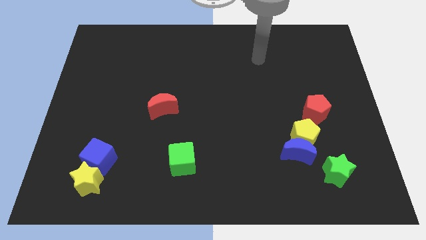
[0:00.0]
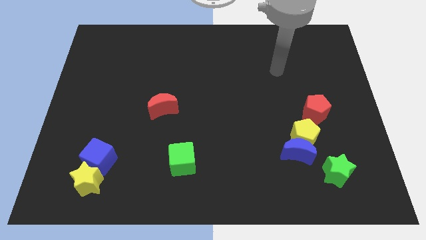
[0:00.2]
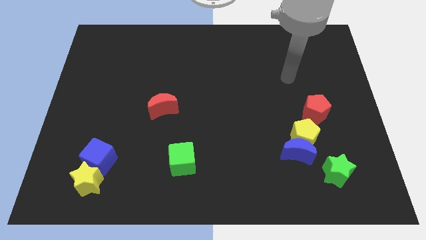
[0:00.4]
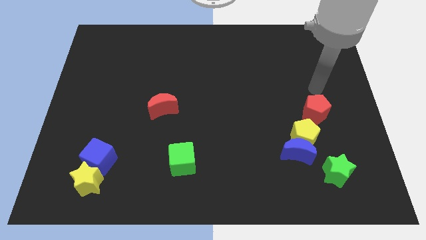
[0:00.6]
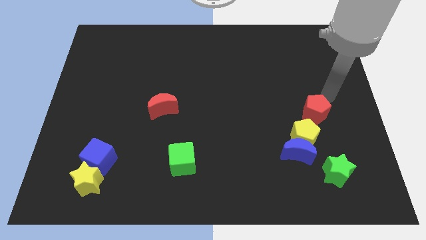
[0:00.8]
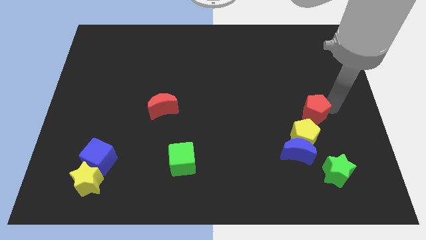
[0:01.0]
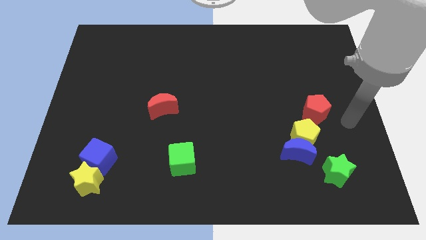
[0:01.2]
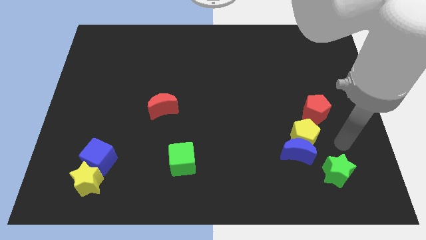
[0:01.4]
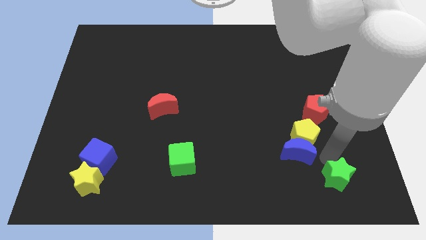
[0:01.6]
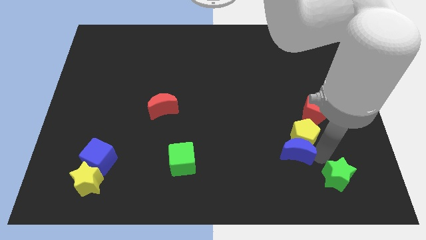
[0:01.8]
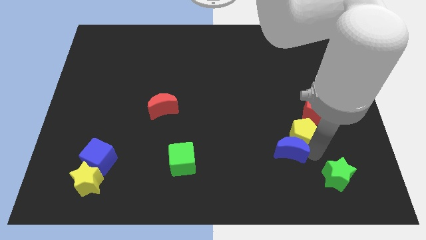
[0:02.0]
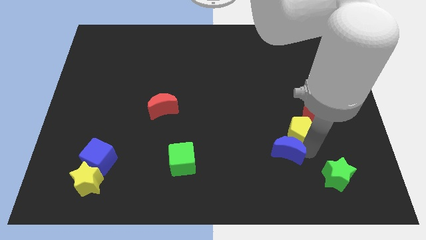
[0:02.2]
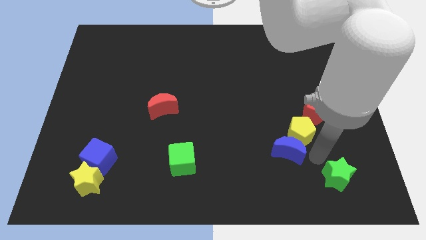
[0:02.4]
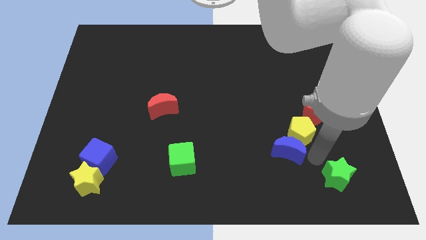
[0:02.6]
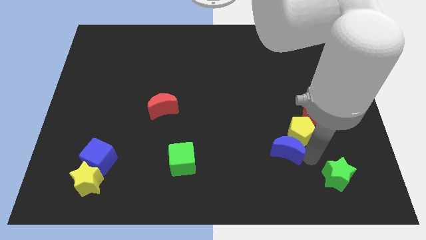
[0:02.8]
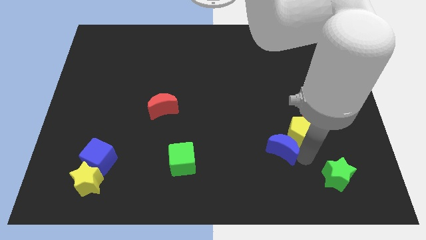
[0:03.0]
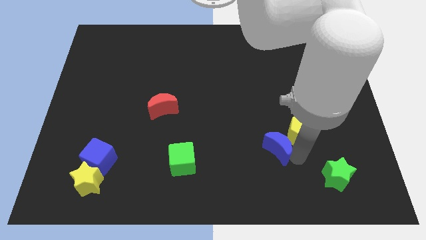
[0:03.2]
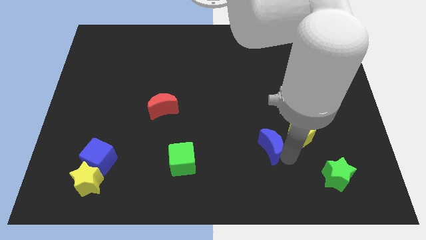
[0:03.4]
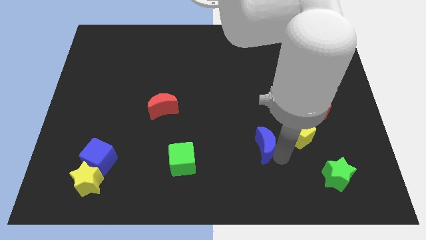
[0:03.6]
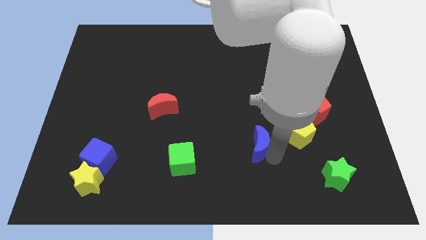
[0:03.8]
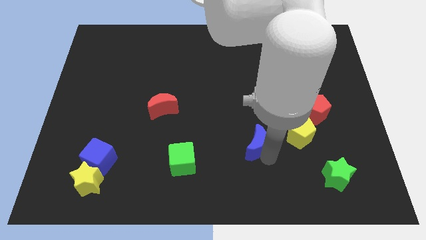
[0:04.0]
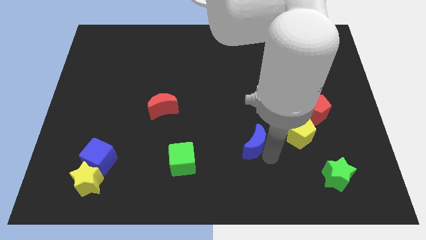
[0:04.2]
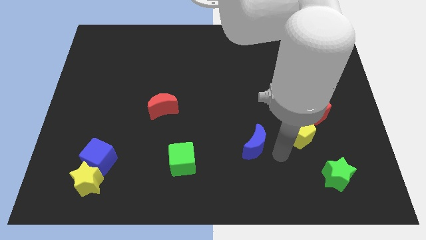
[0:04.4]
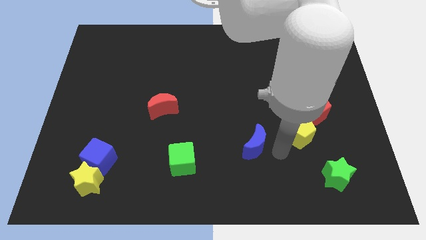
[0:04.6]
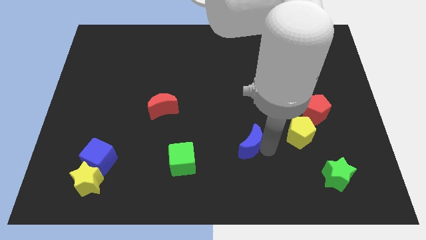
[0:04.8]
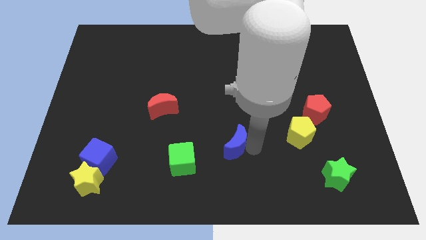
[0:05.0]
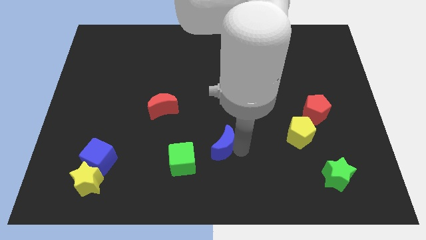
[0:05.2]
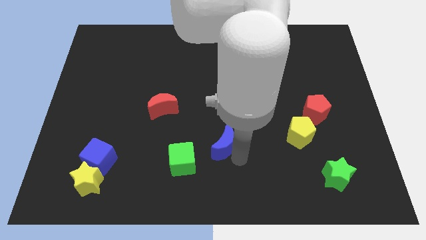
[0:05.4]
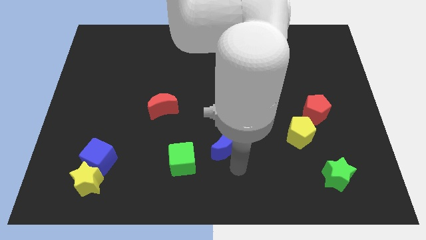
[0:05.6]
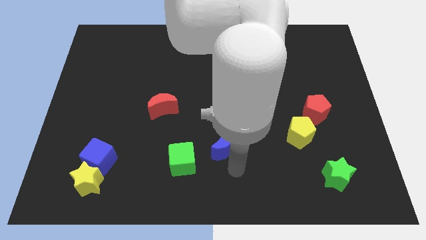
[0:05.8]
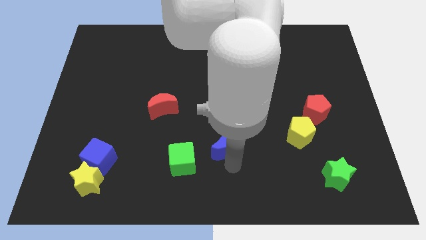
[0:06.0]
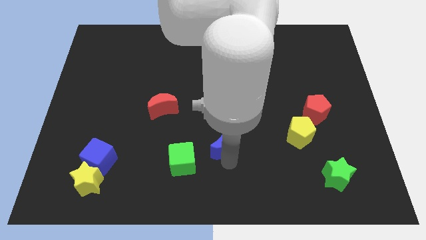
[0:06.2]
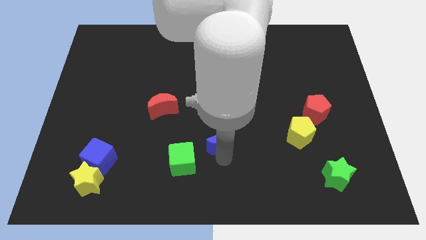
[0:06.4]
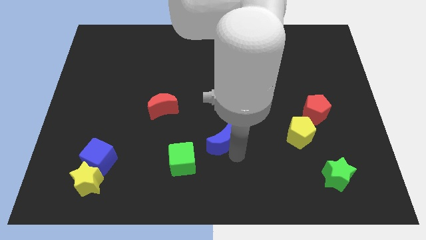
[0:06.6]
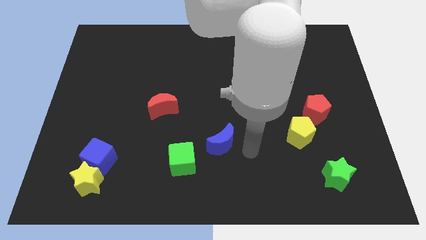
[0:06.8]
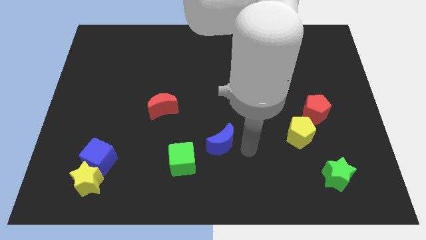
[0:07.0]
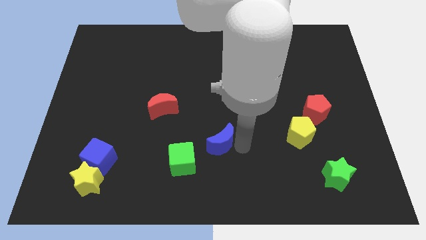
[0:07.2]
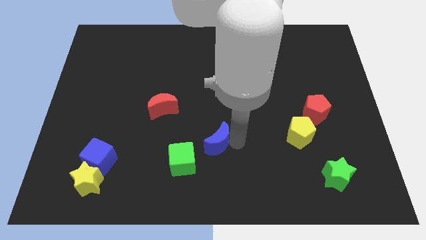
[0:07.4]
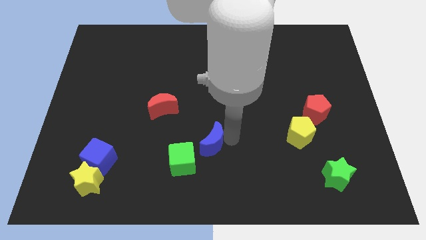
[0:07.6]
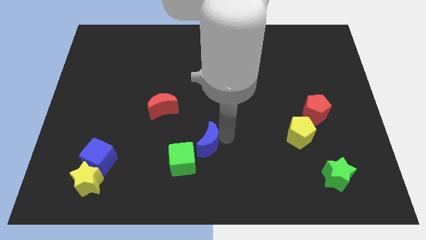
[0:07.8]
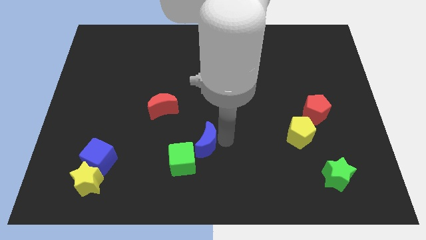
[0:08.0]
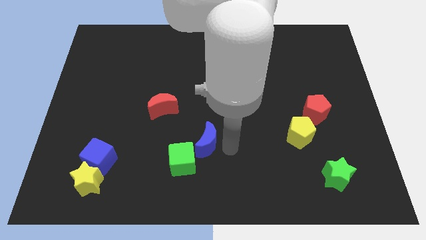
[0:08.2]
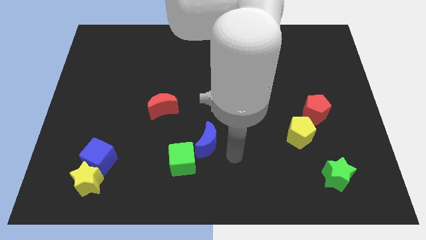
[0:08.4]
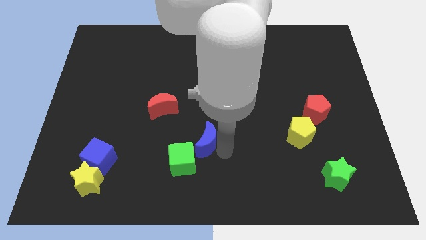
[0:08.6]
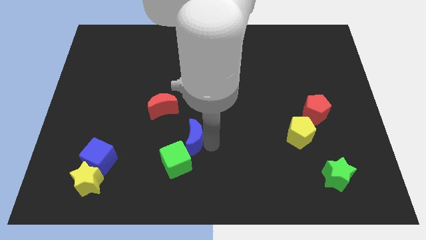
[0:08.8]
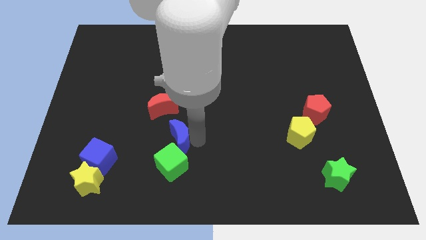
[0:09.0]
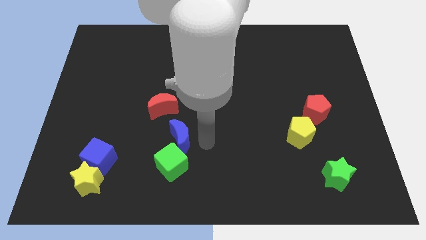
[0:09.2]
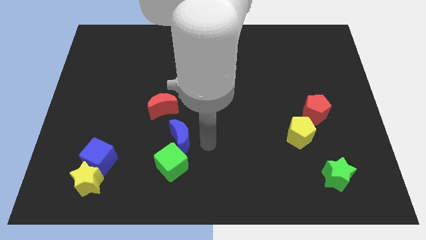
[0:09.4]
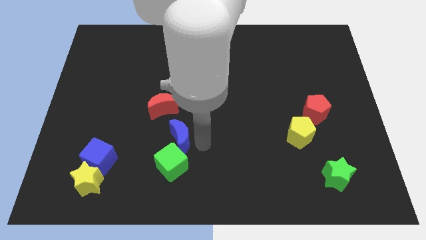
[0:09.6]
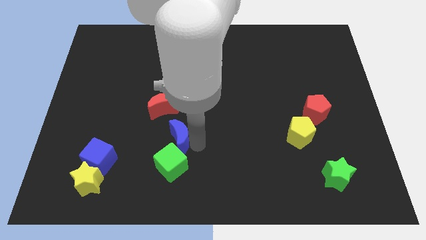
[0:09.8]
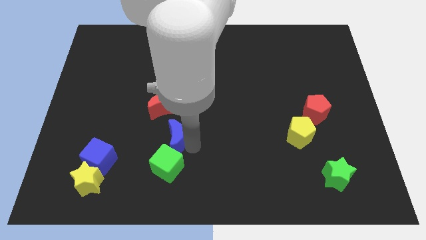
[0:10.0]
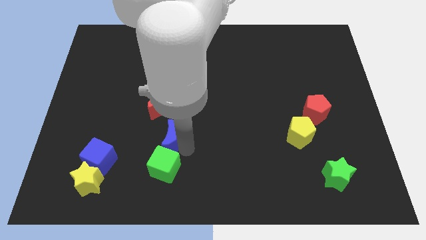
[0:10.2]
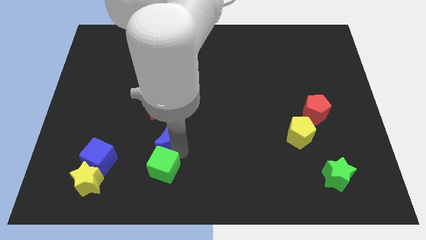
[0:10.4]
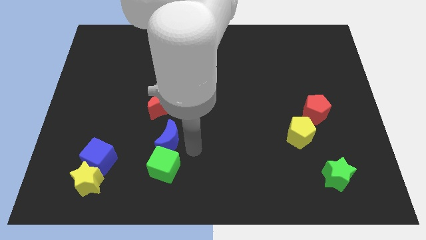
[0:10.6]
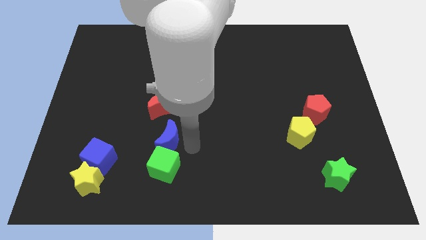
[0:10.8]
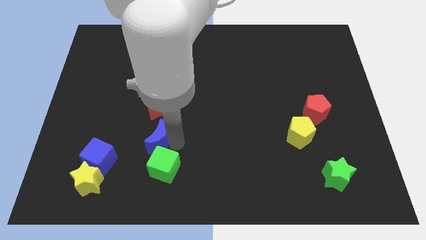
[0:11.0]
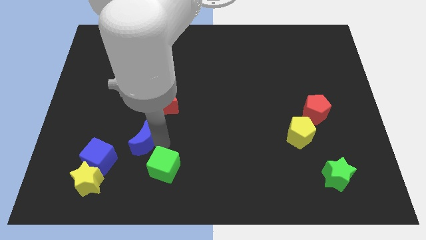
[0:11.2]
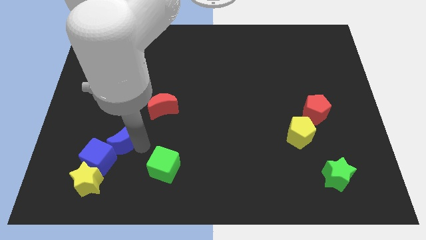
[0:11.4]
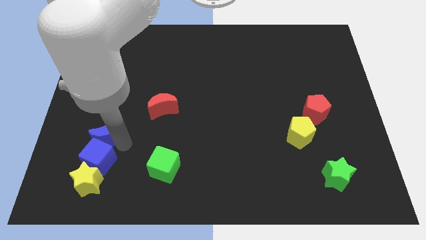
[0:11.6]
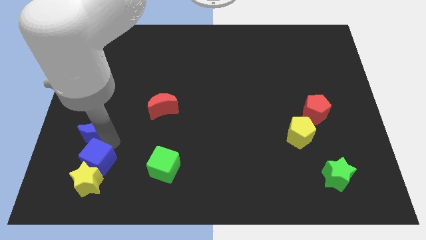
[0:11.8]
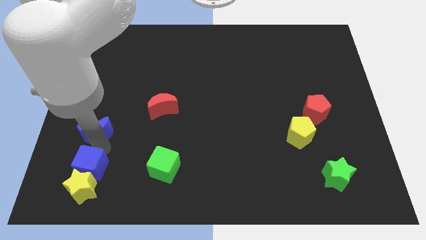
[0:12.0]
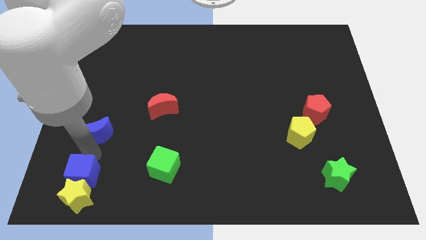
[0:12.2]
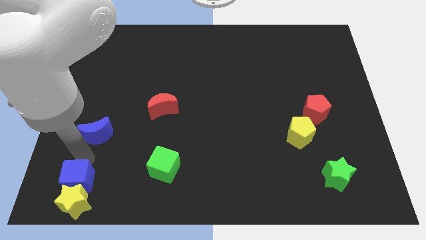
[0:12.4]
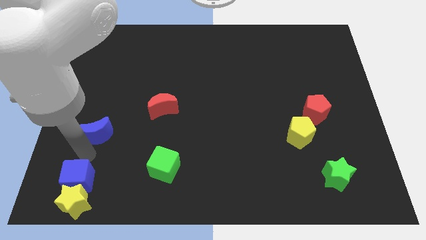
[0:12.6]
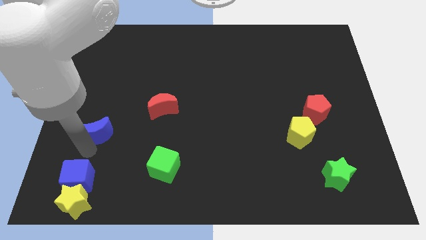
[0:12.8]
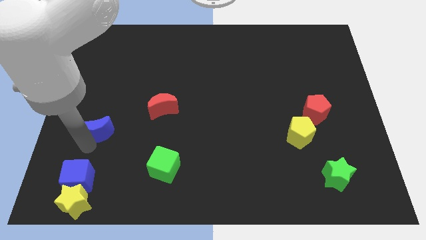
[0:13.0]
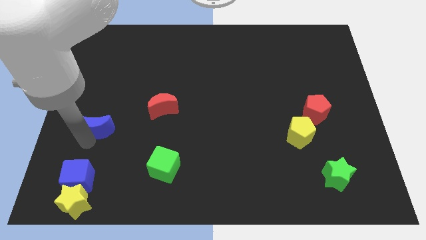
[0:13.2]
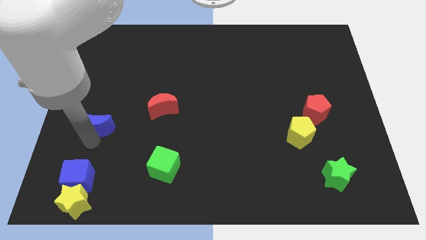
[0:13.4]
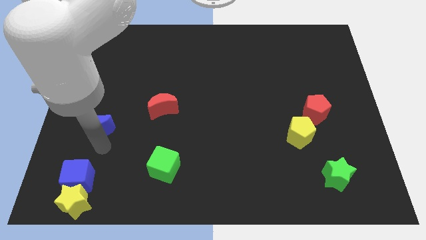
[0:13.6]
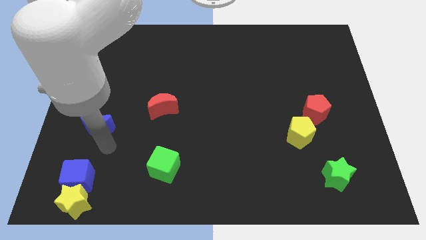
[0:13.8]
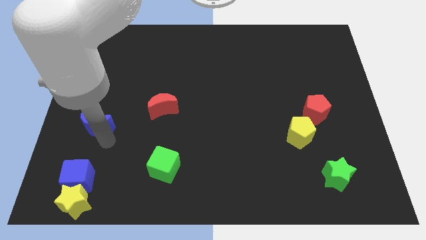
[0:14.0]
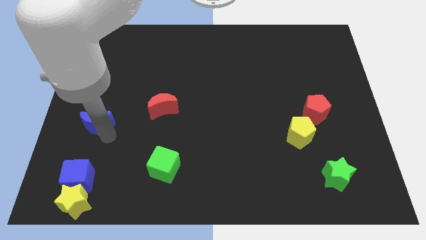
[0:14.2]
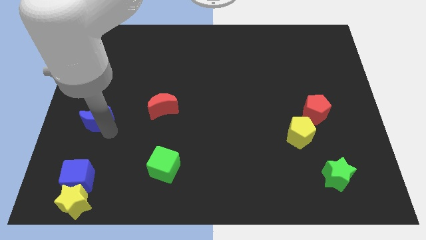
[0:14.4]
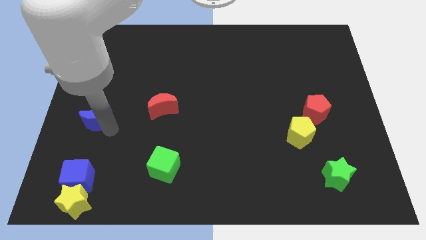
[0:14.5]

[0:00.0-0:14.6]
push the blue moon to the left side

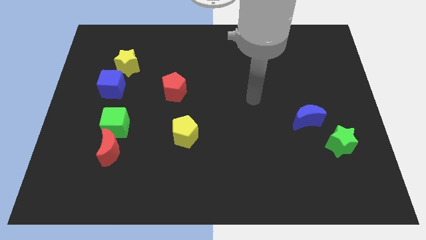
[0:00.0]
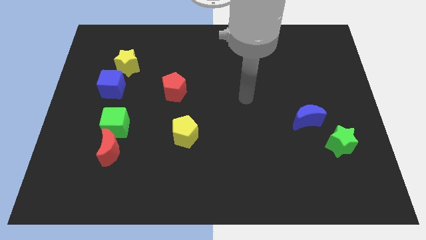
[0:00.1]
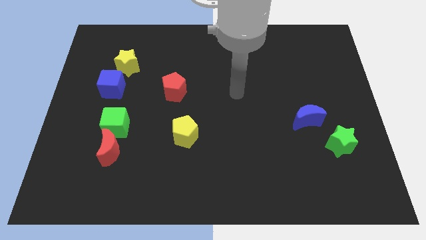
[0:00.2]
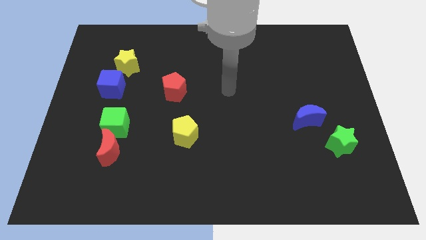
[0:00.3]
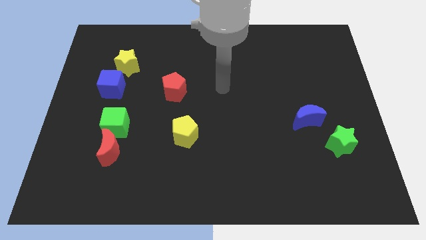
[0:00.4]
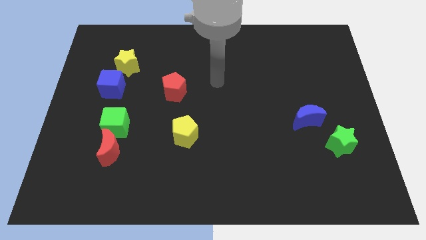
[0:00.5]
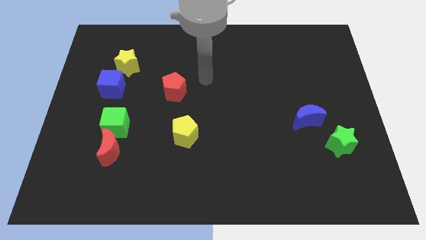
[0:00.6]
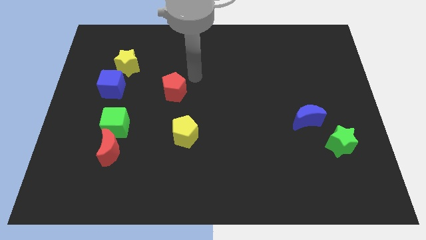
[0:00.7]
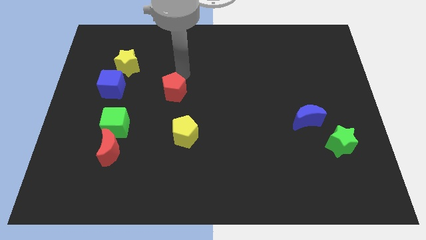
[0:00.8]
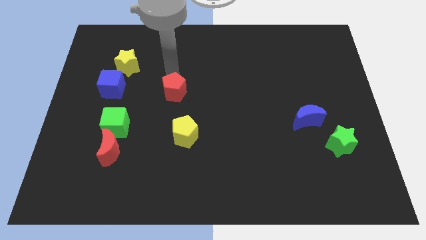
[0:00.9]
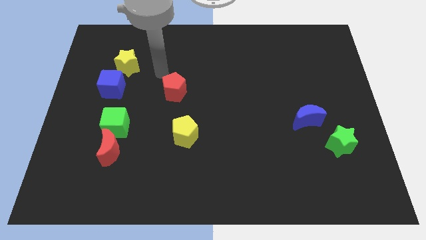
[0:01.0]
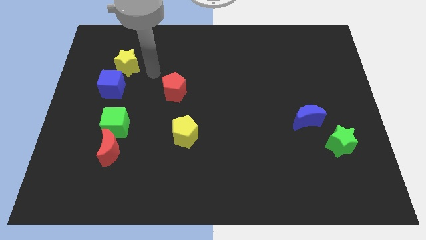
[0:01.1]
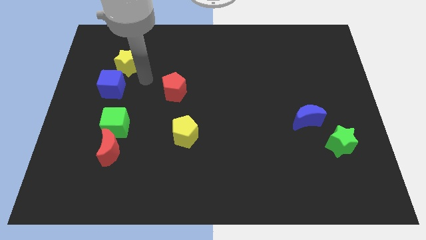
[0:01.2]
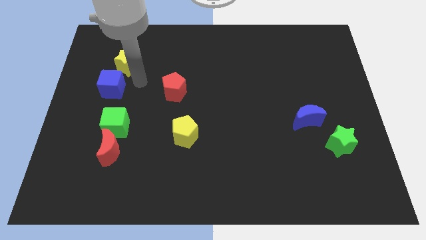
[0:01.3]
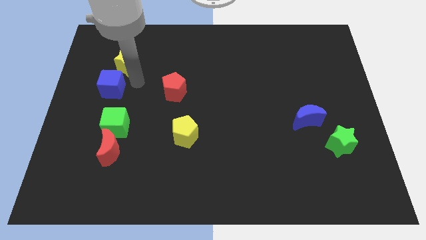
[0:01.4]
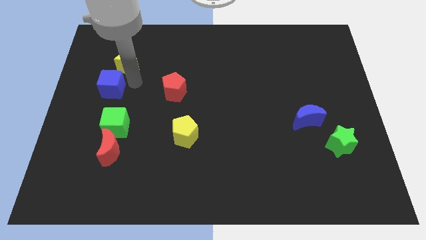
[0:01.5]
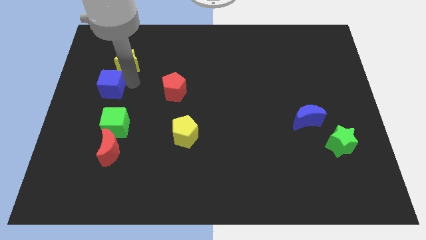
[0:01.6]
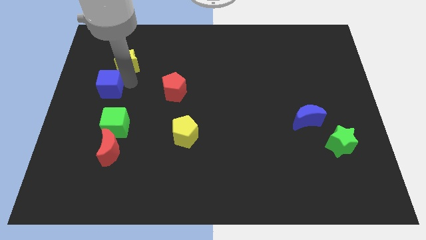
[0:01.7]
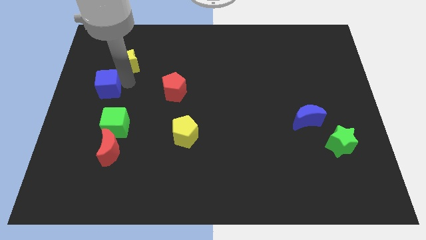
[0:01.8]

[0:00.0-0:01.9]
slide the blue cube to the left side
